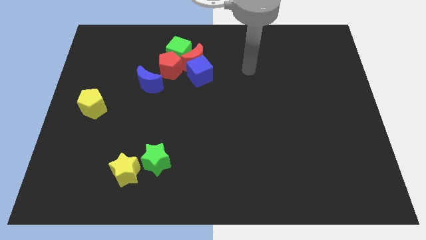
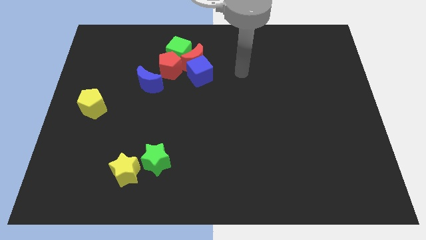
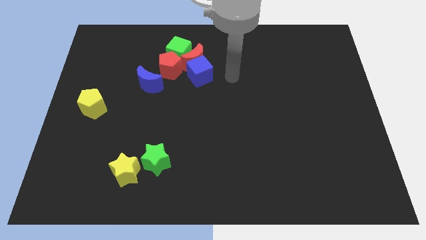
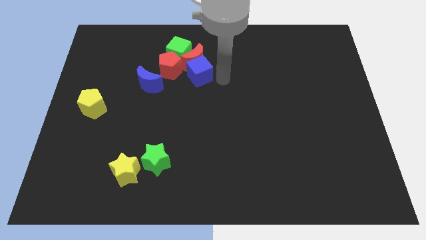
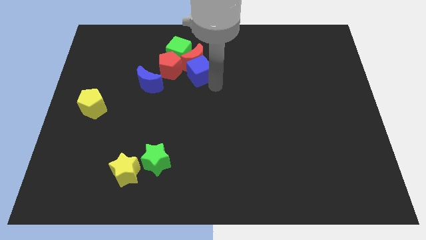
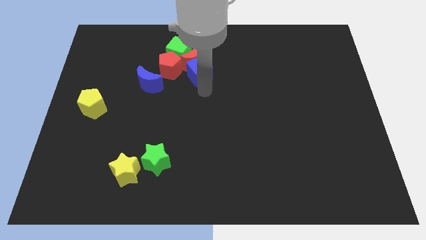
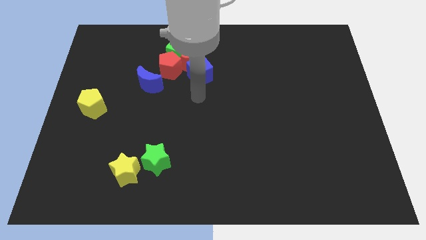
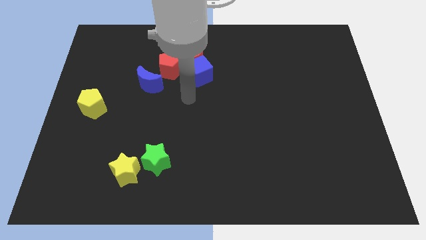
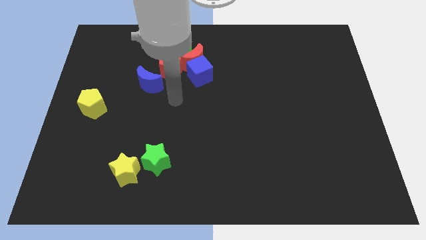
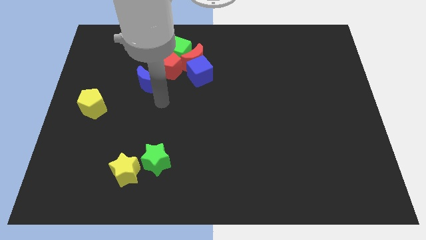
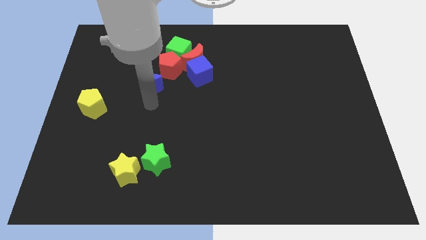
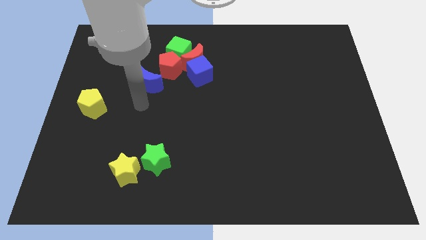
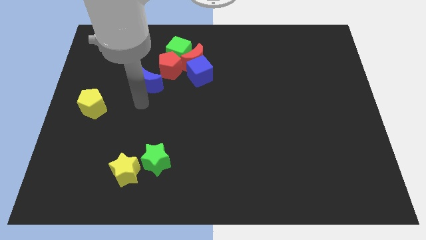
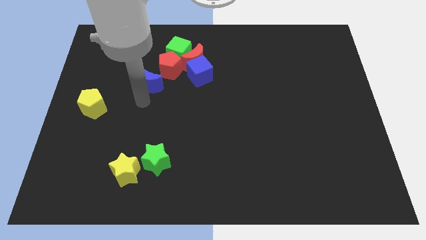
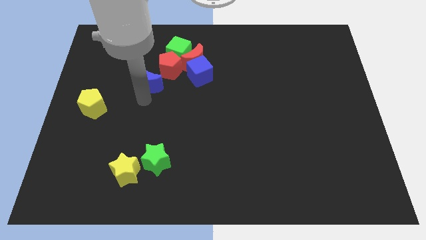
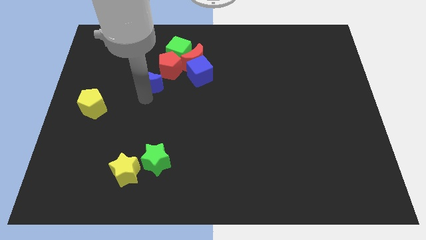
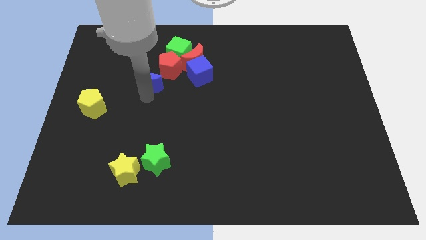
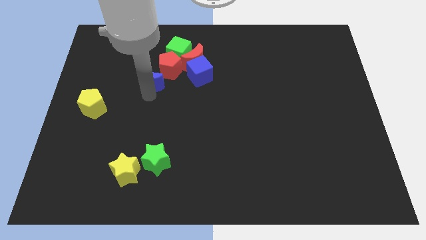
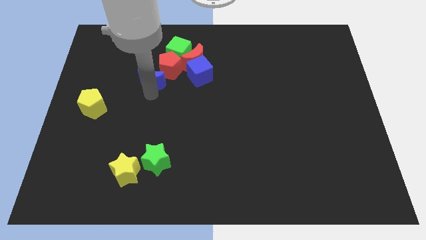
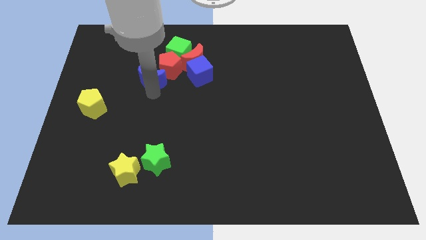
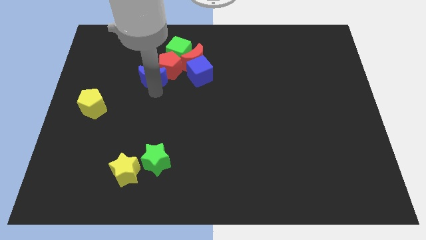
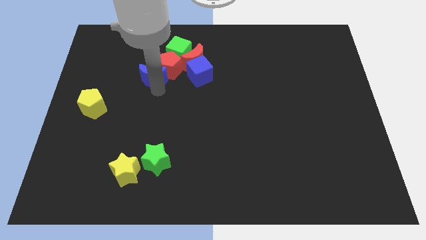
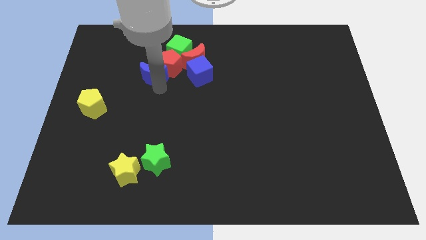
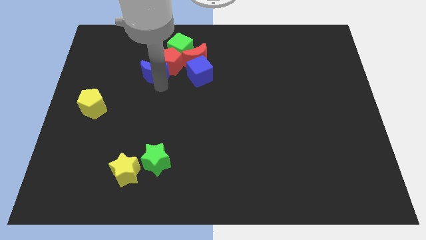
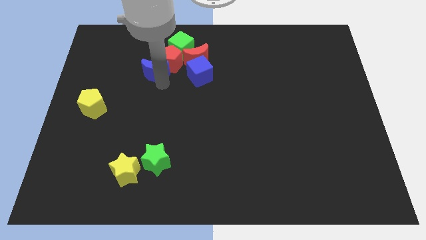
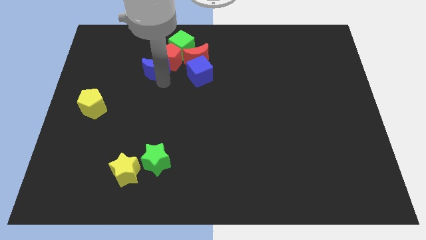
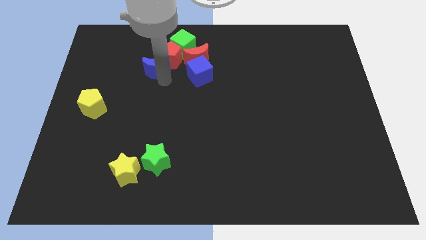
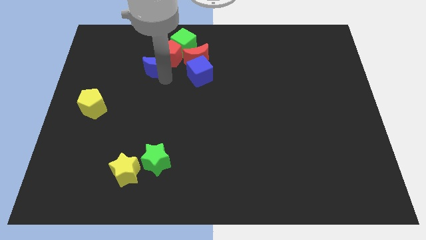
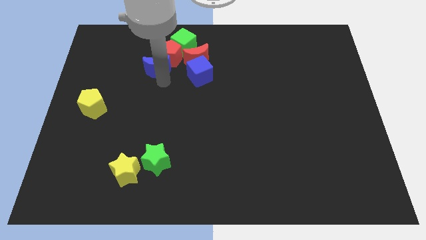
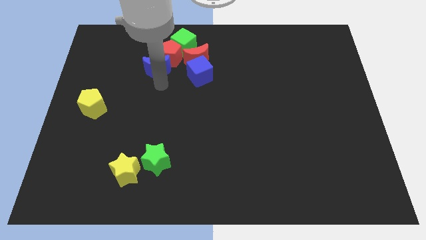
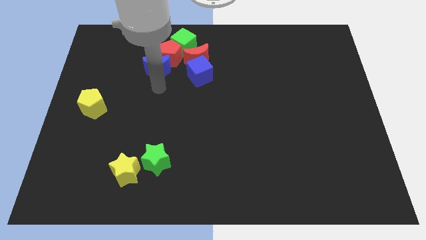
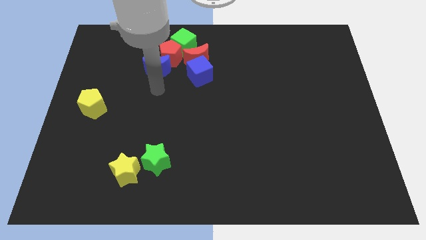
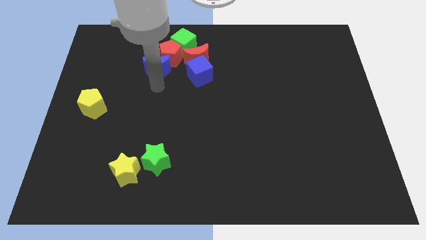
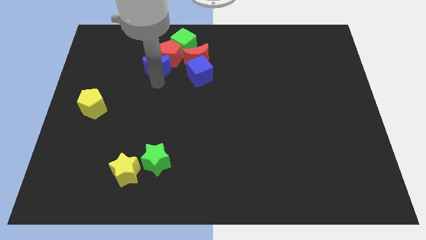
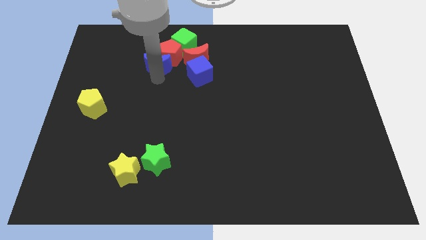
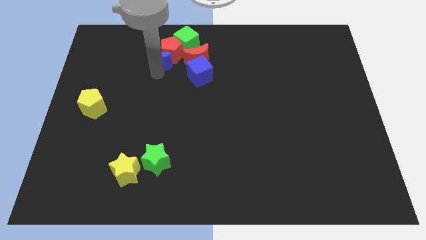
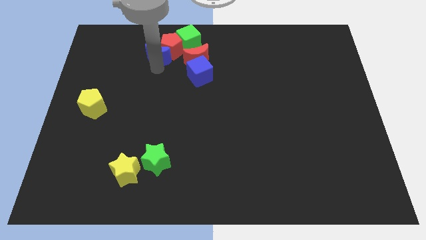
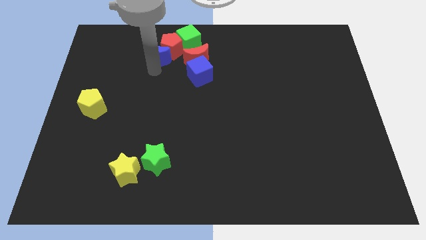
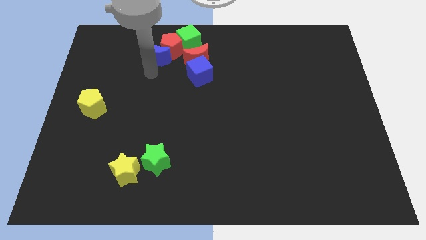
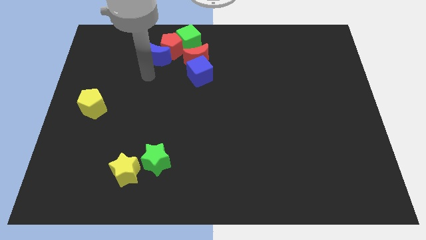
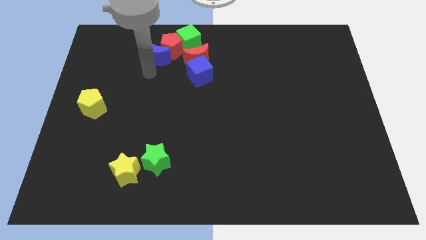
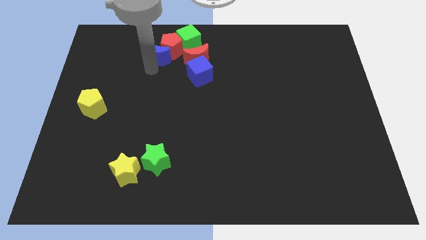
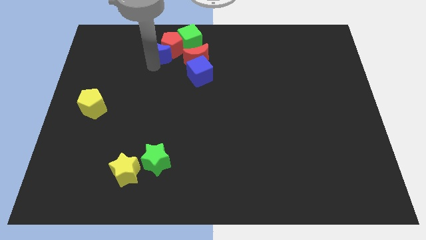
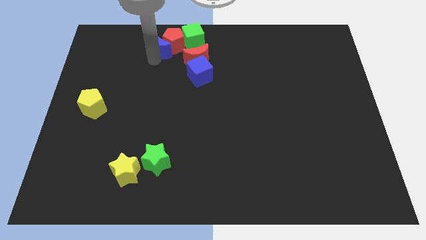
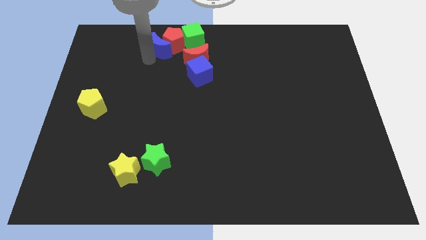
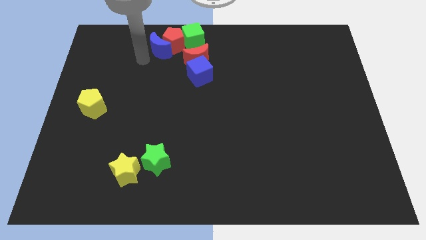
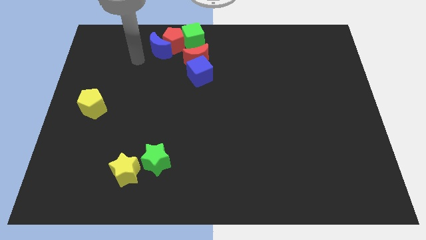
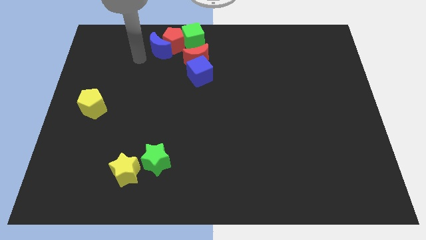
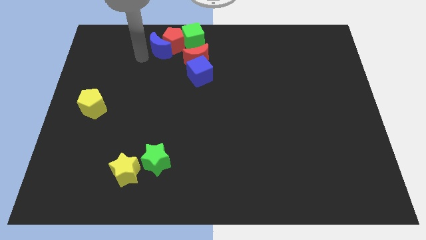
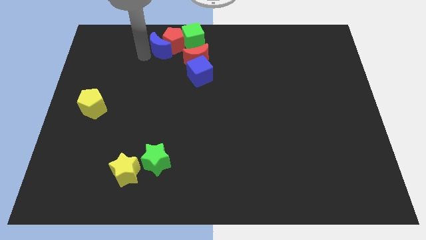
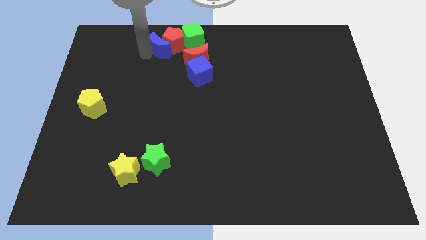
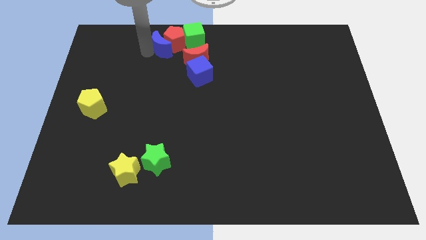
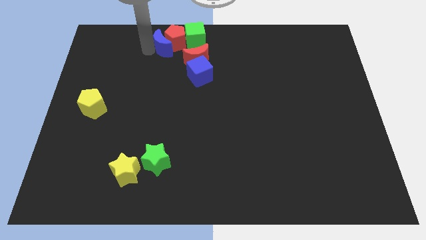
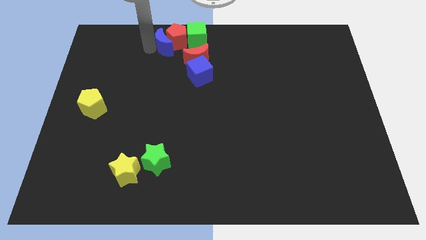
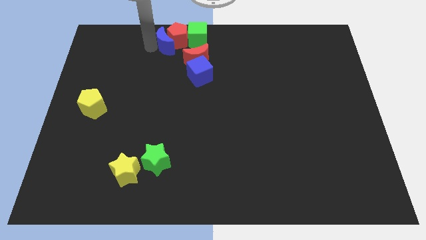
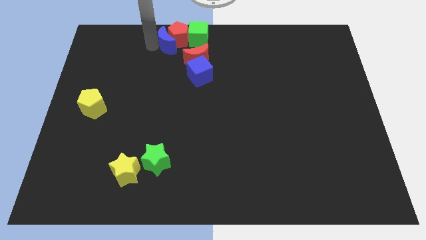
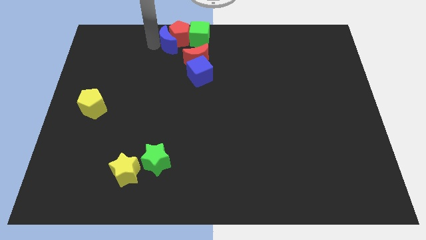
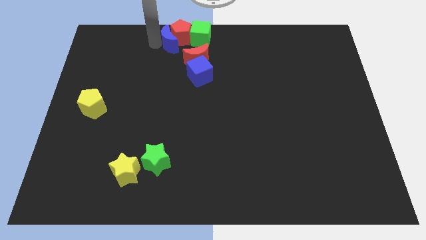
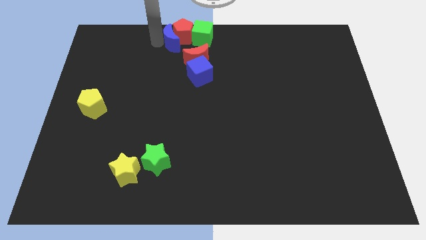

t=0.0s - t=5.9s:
move the blue moon to the top side

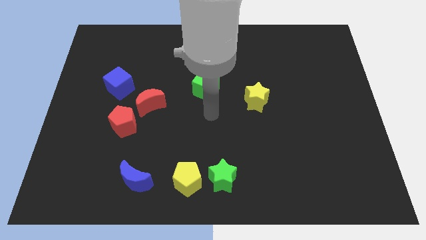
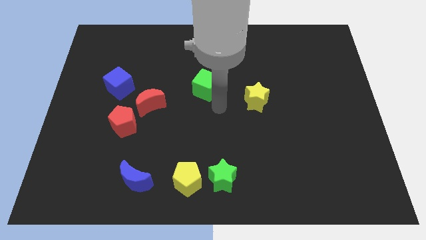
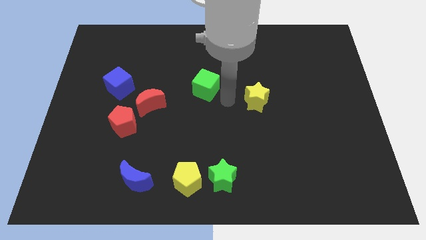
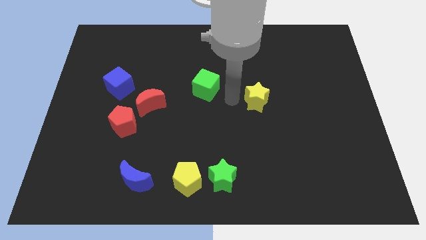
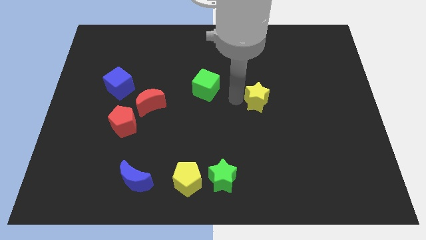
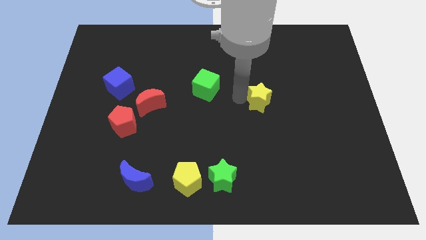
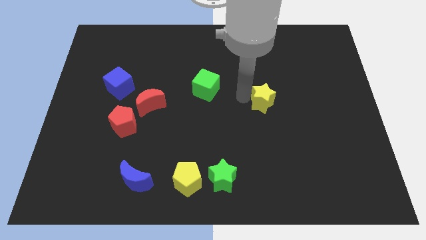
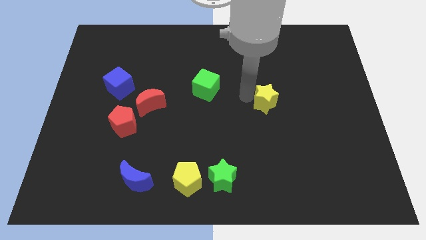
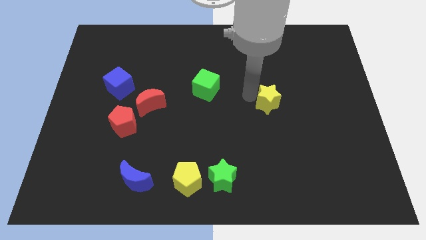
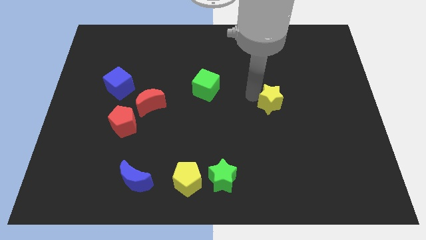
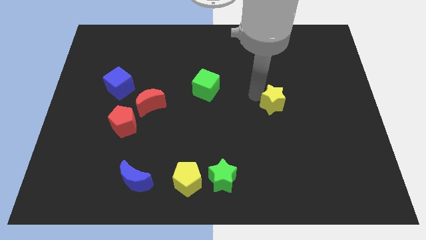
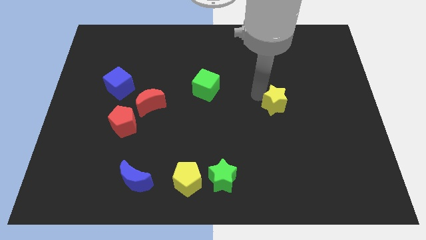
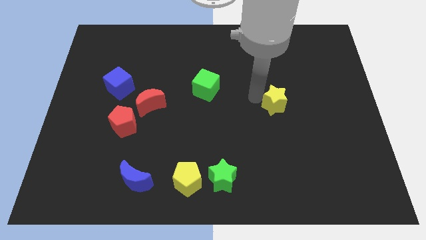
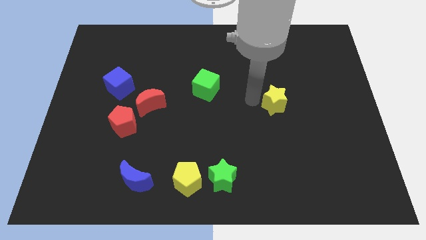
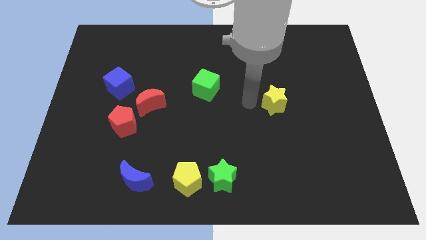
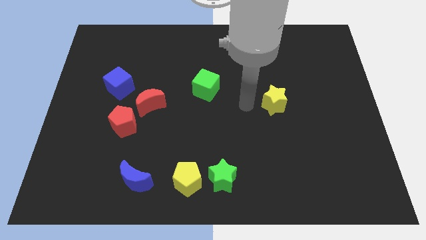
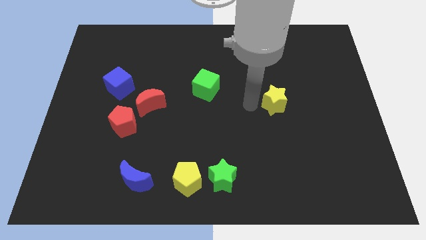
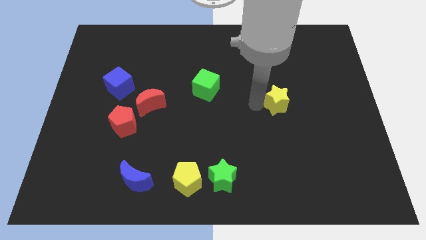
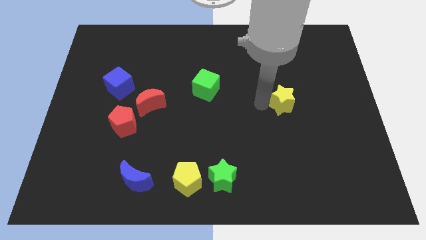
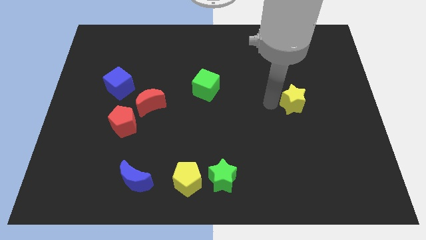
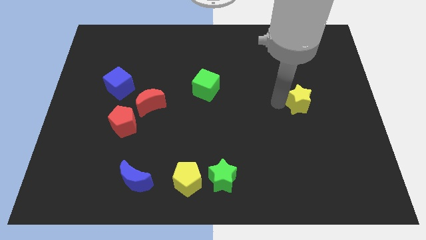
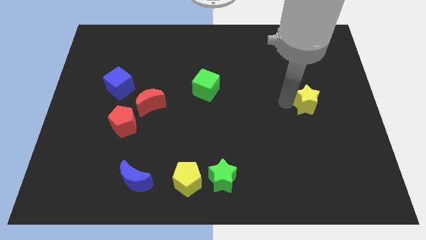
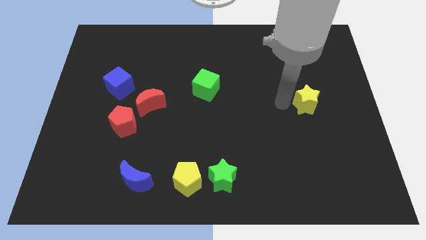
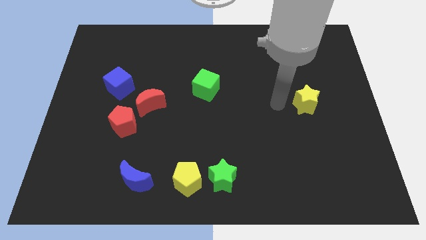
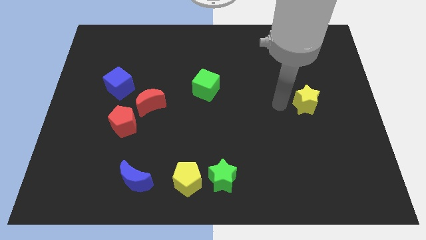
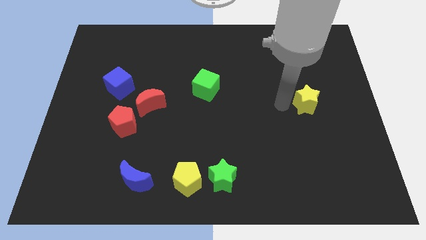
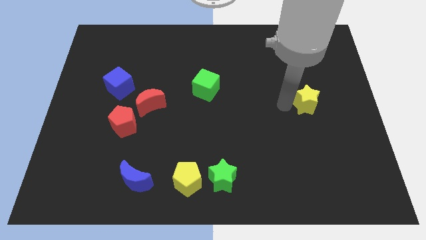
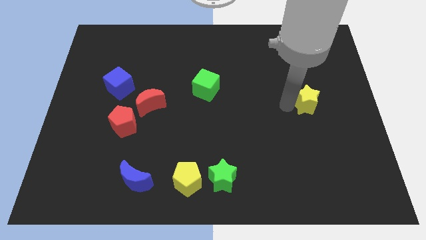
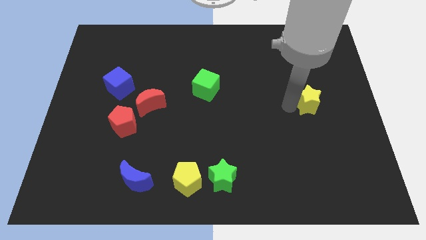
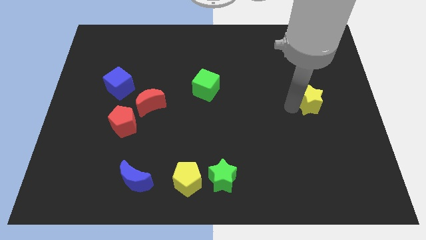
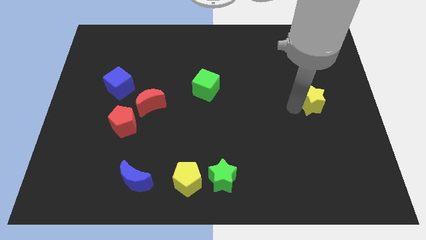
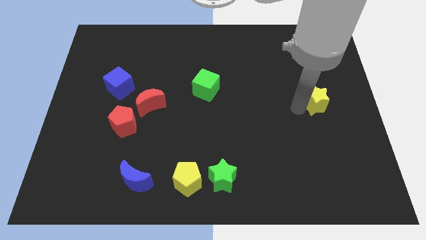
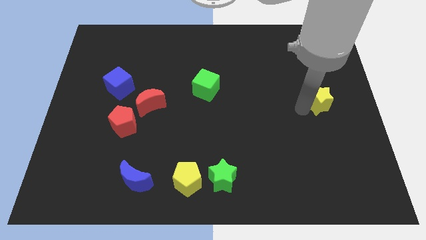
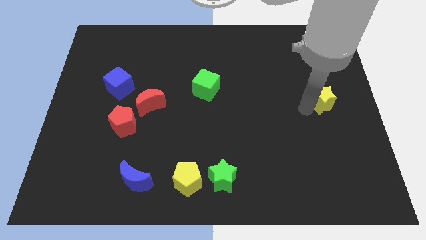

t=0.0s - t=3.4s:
slide the yellow star to the center right
